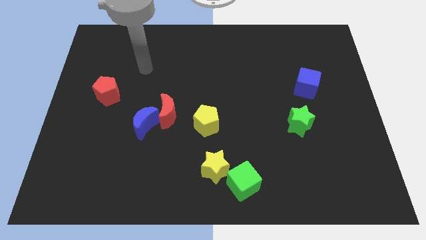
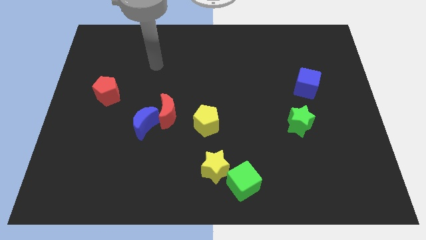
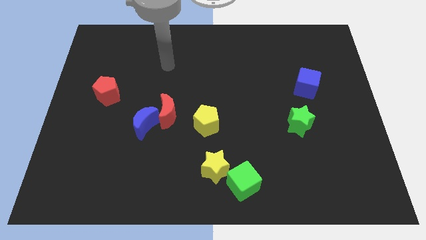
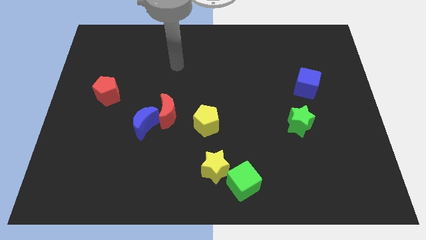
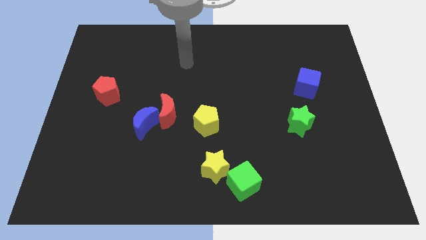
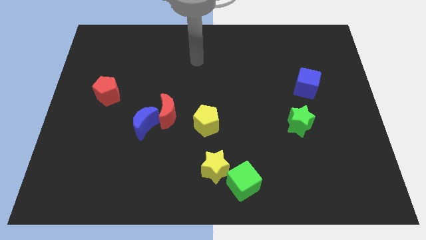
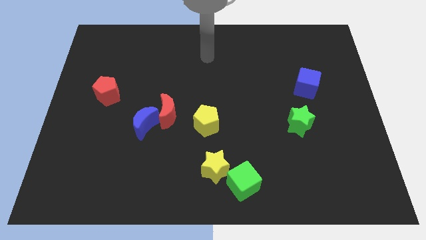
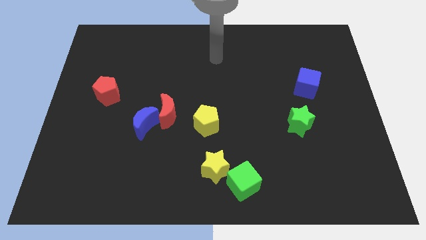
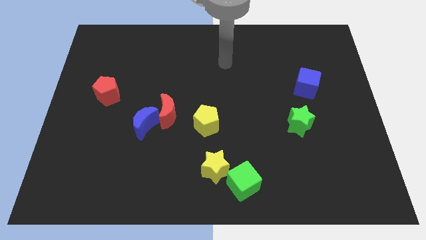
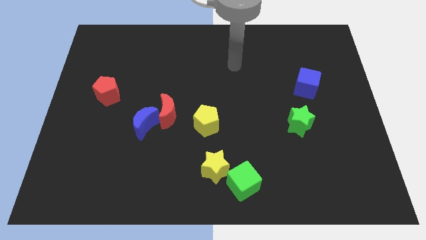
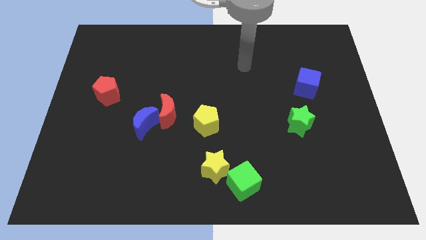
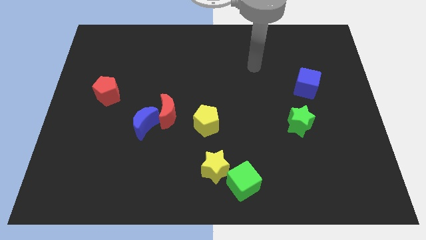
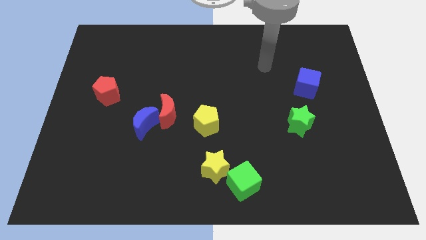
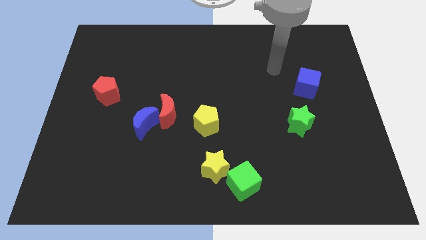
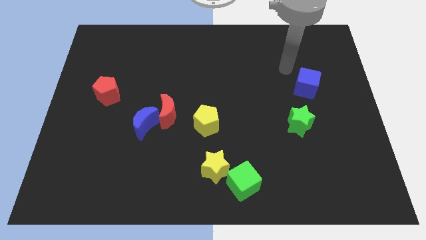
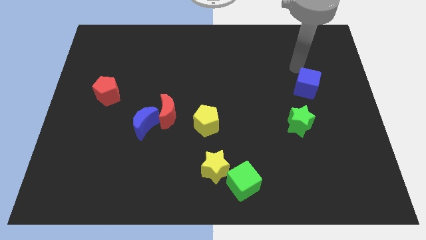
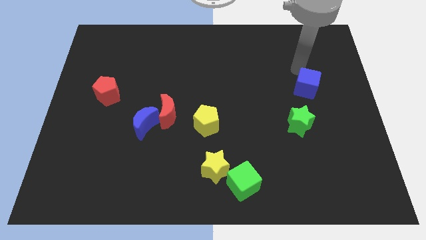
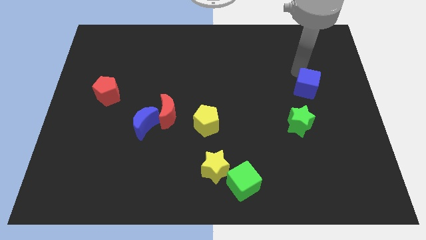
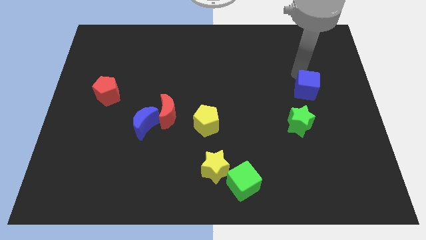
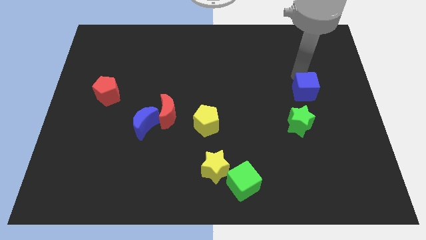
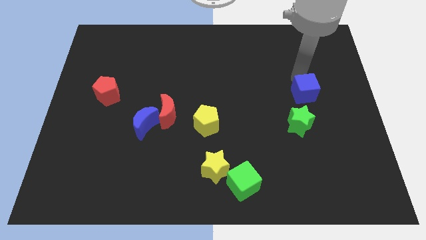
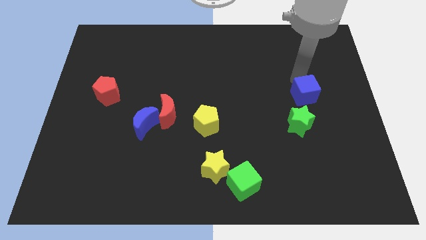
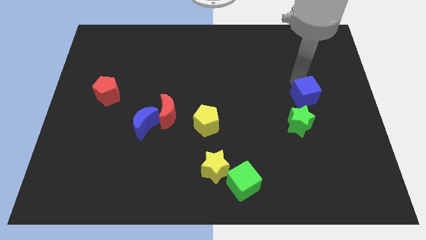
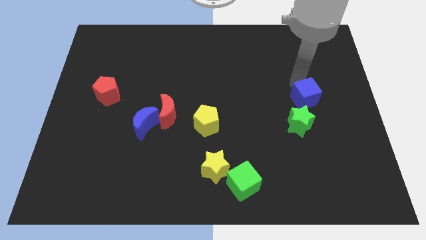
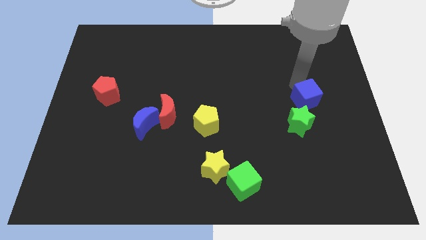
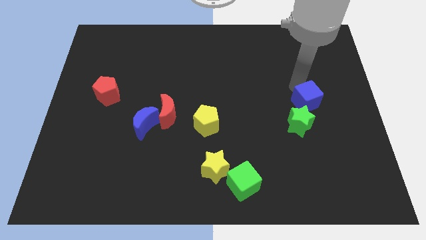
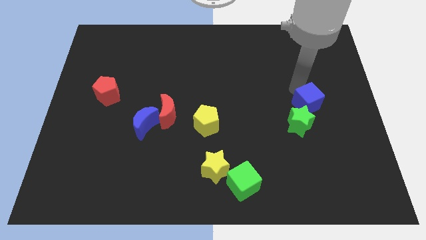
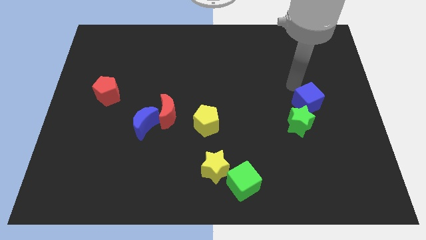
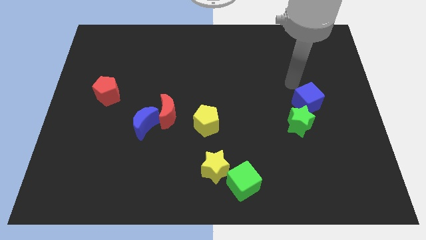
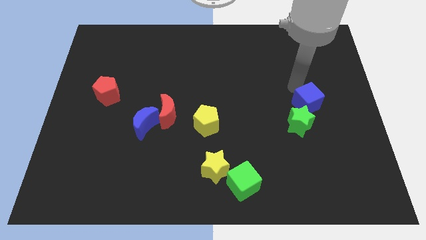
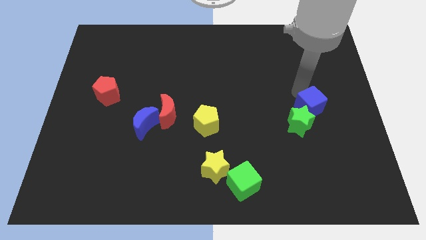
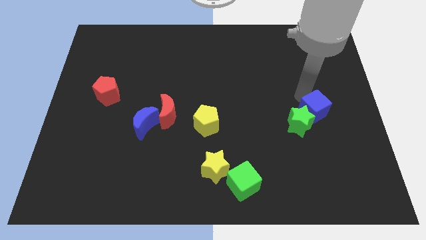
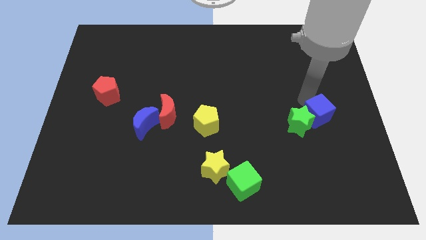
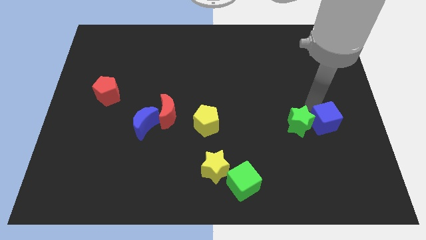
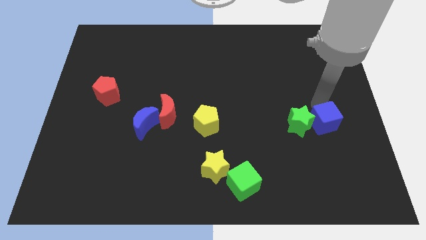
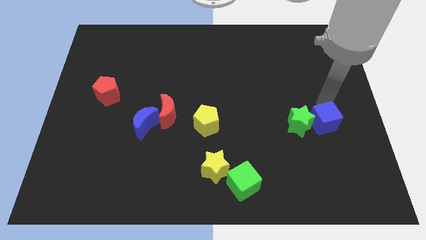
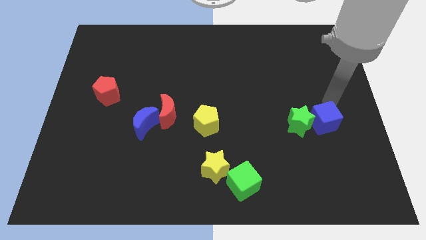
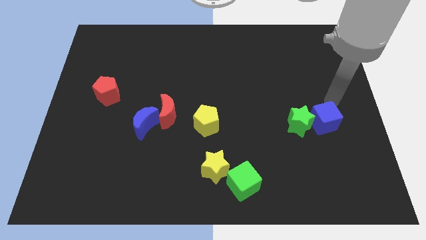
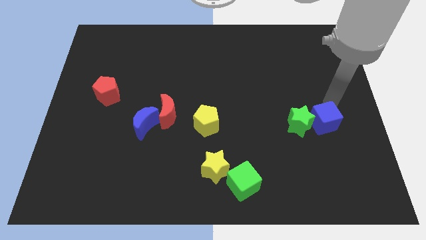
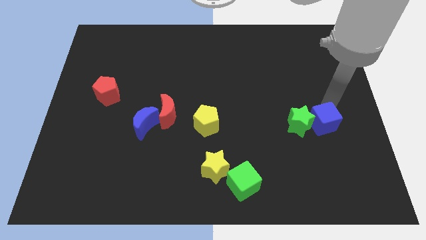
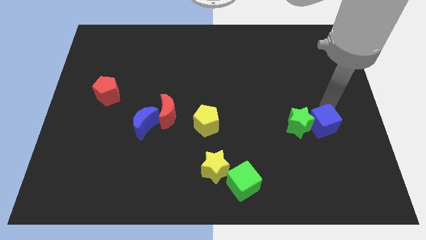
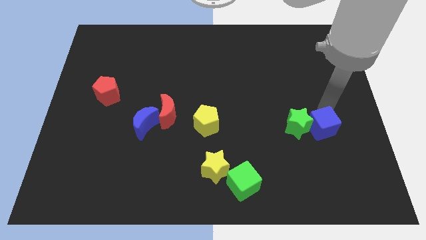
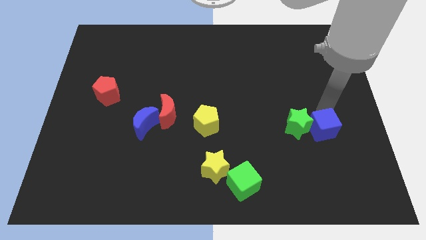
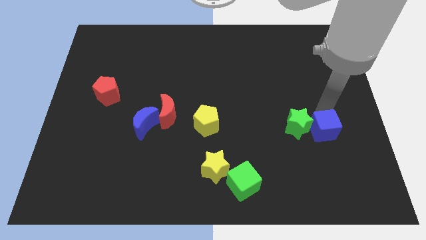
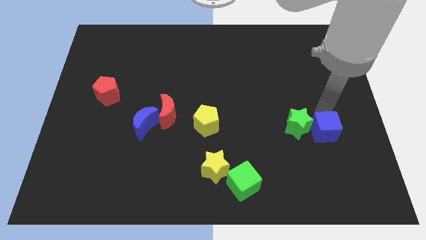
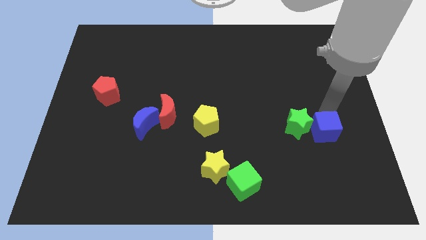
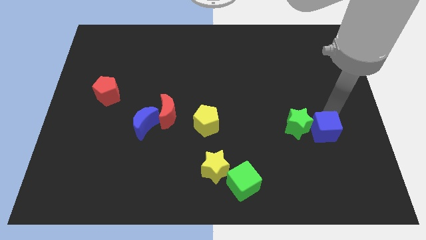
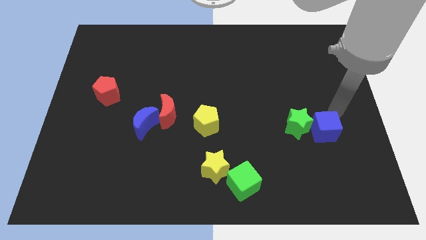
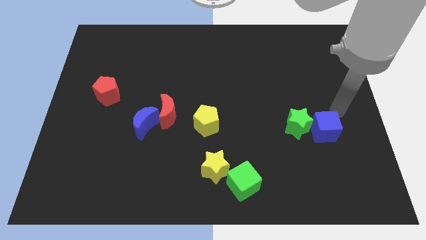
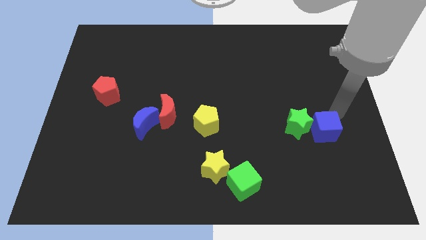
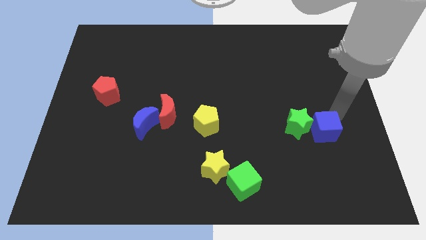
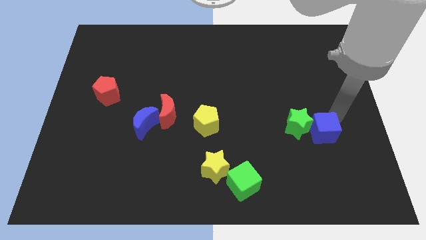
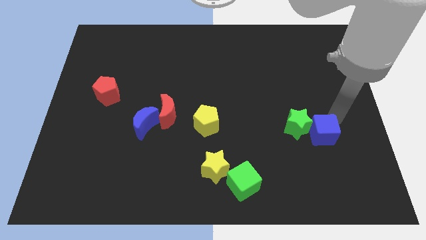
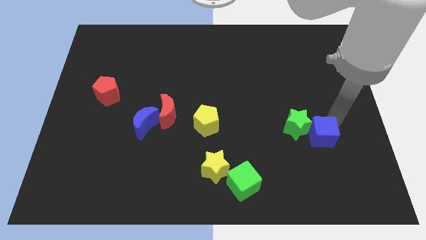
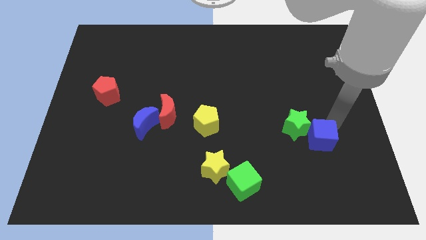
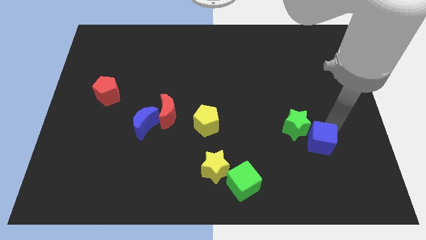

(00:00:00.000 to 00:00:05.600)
slide the blue cube to the bottom side of the green star

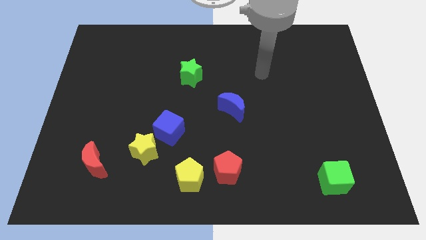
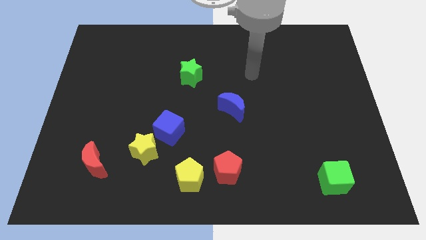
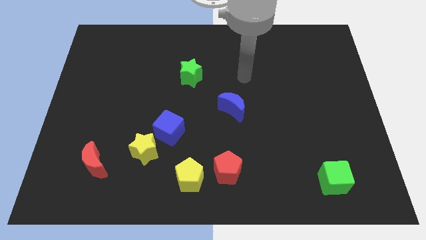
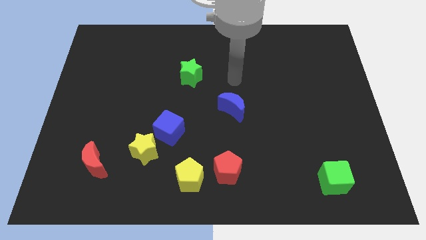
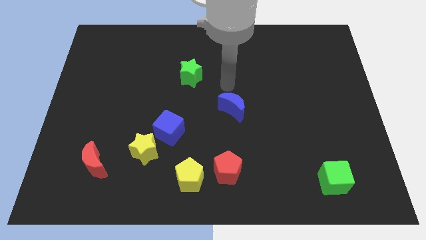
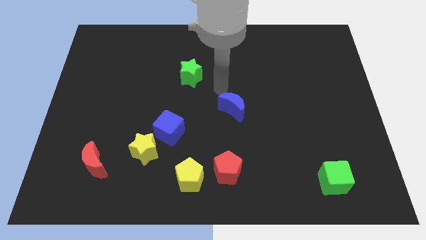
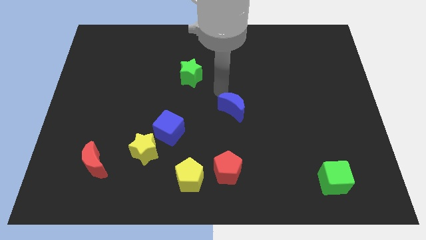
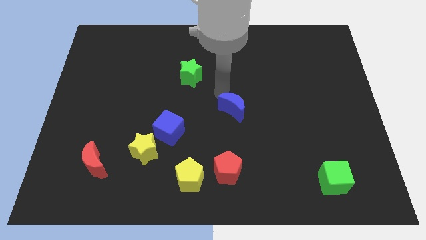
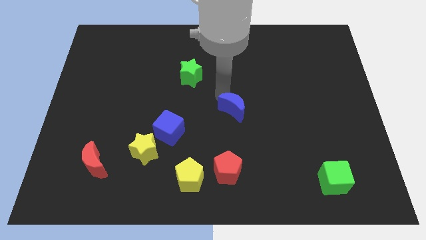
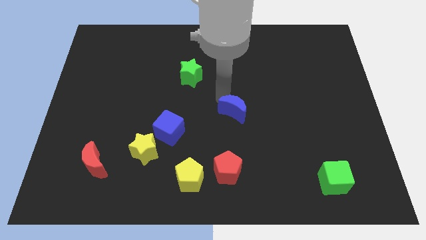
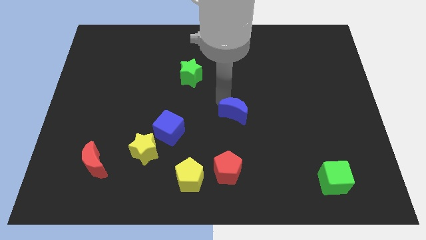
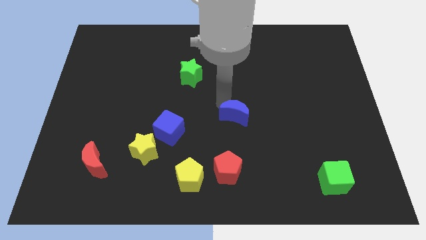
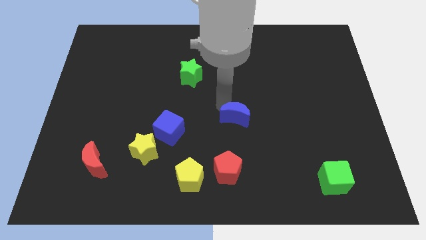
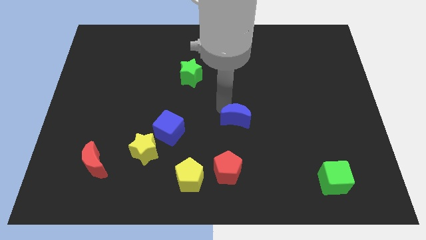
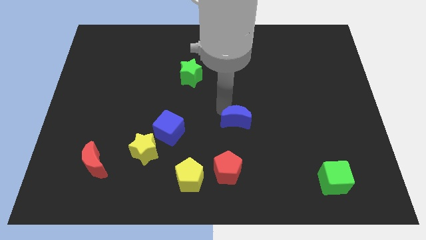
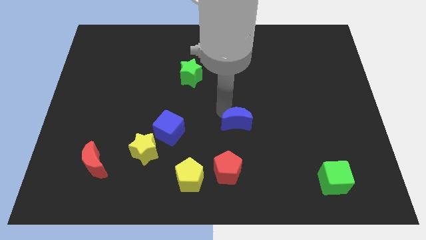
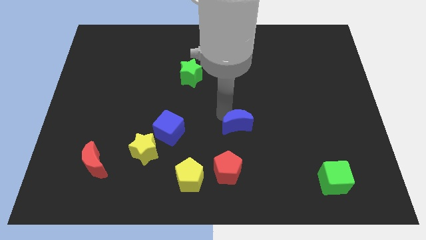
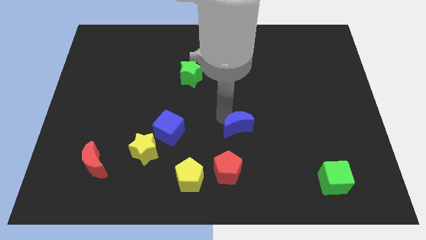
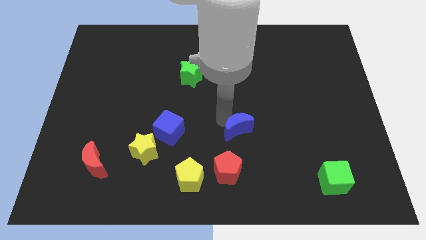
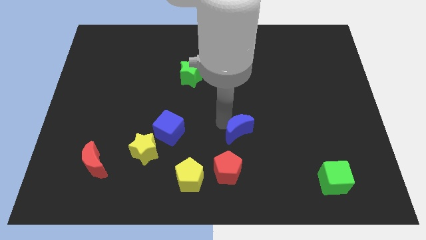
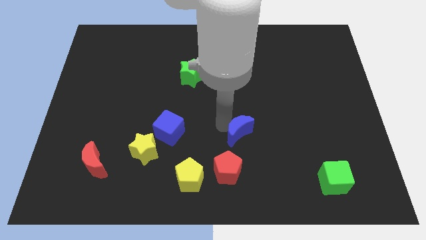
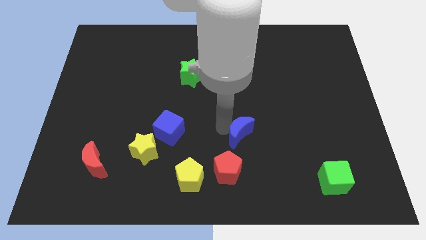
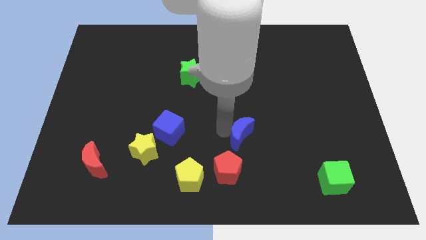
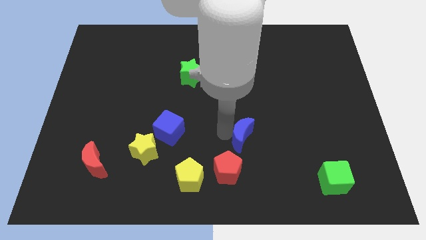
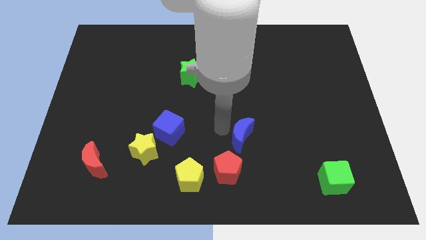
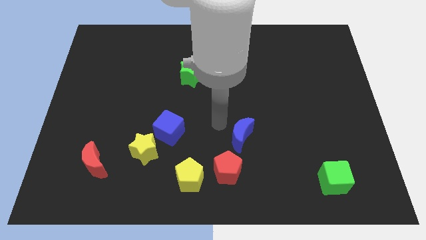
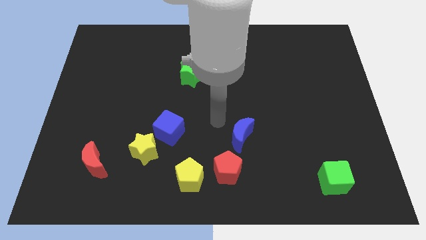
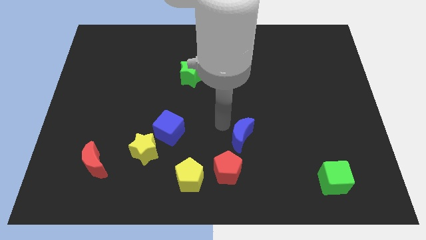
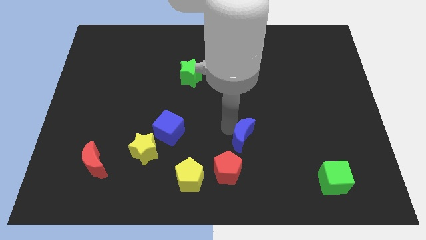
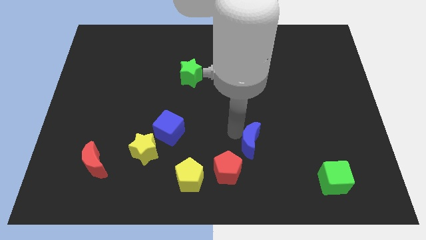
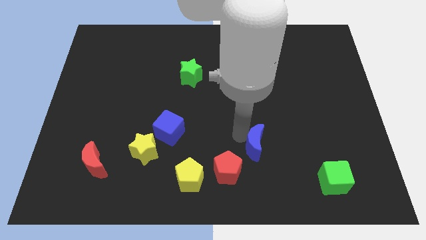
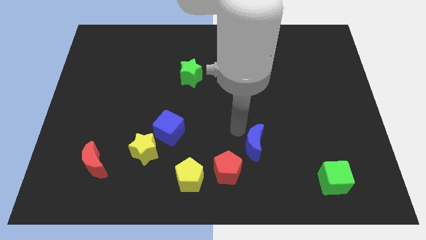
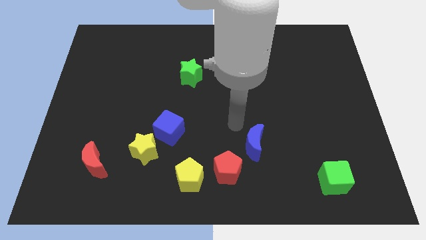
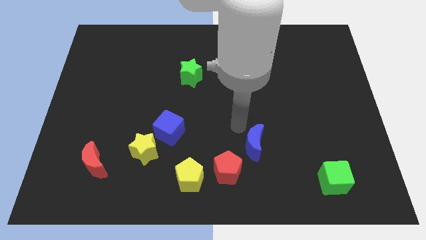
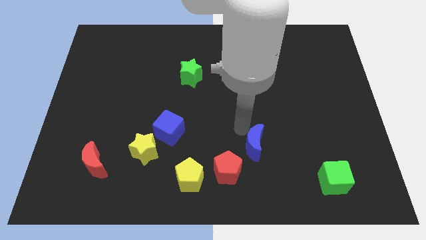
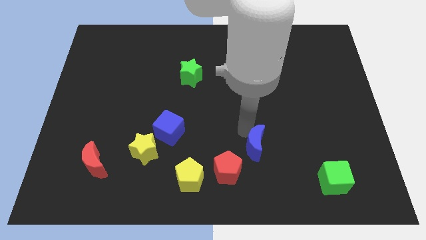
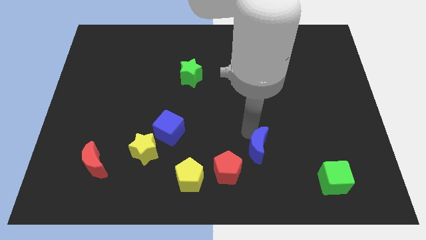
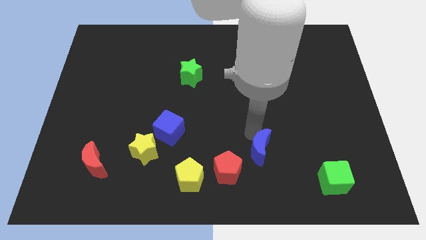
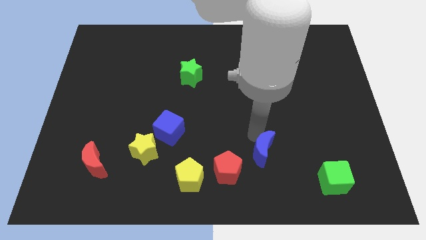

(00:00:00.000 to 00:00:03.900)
slide the blue moon just right of the red pentagon
